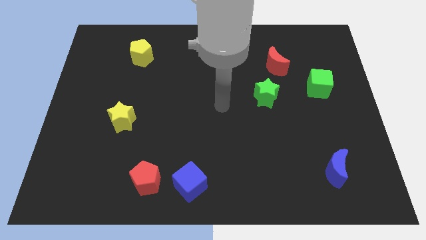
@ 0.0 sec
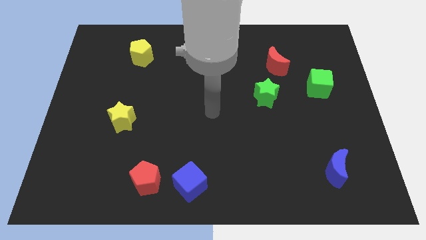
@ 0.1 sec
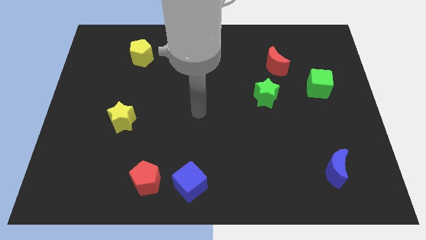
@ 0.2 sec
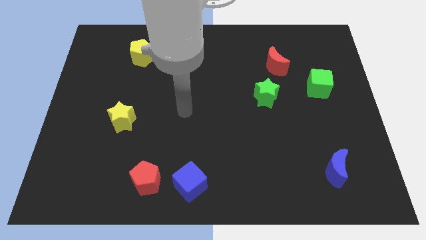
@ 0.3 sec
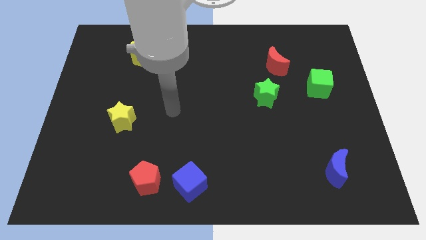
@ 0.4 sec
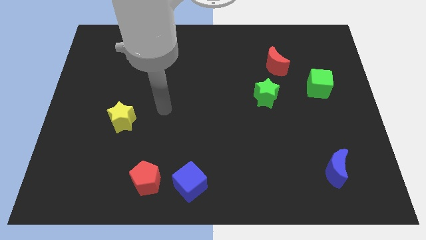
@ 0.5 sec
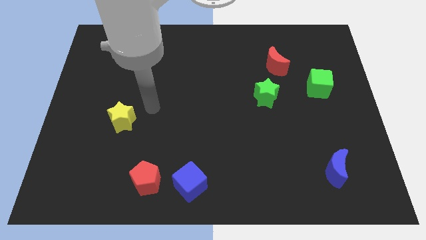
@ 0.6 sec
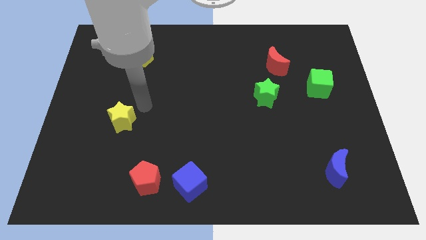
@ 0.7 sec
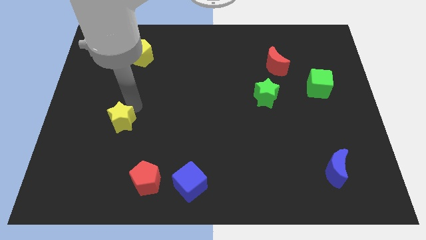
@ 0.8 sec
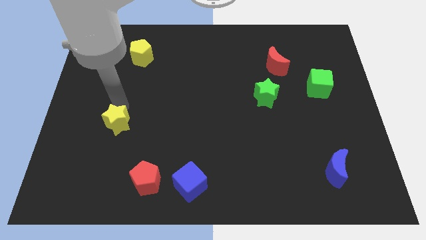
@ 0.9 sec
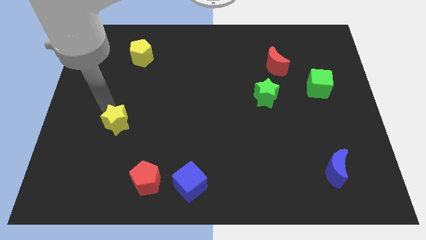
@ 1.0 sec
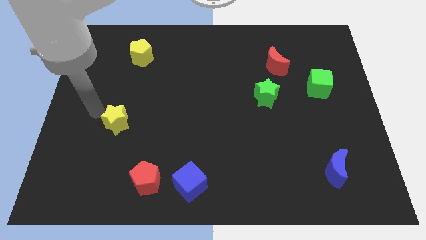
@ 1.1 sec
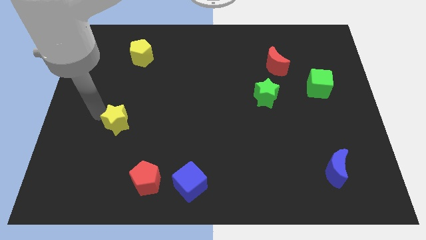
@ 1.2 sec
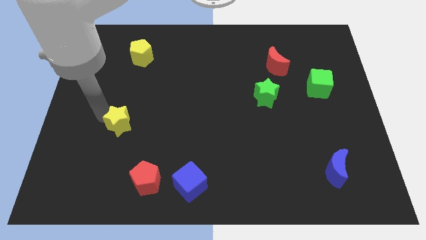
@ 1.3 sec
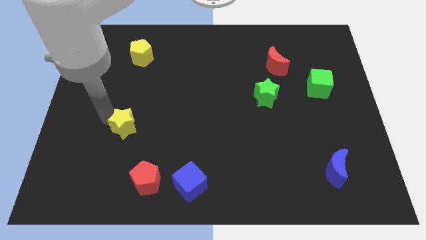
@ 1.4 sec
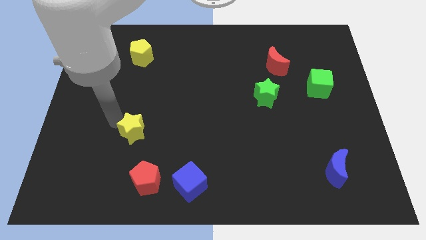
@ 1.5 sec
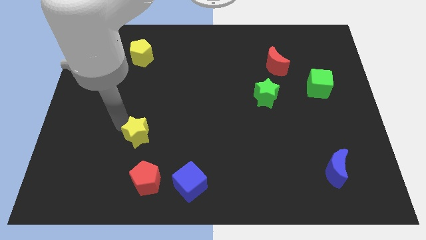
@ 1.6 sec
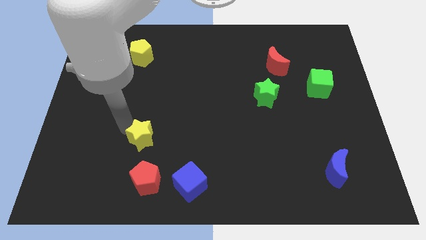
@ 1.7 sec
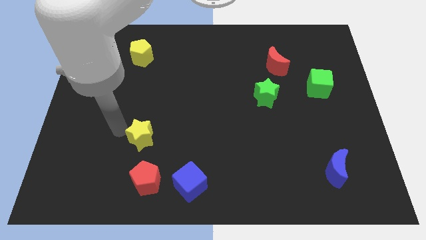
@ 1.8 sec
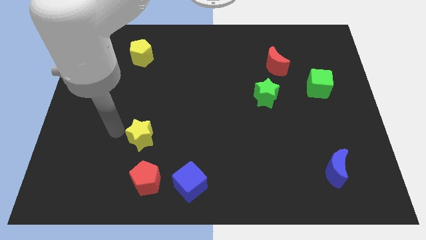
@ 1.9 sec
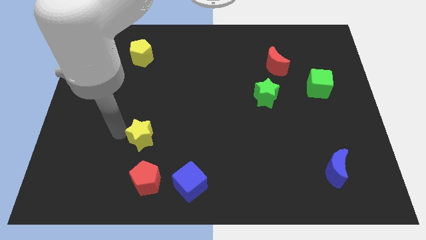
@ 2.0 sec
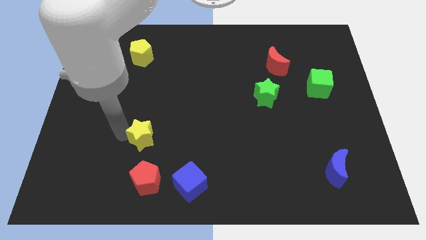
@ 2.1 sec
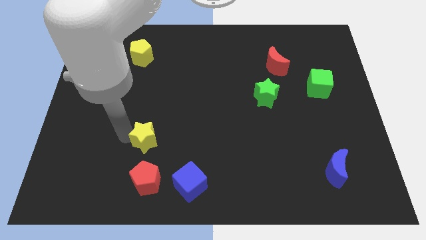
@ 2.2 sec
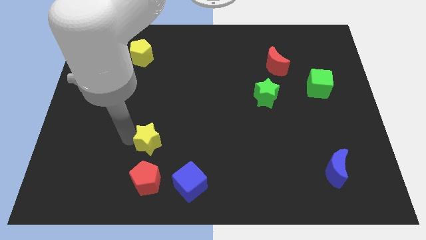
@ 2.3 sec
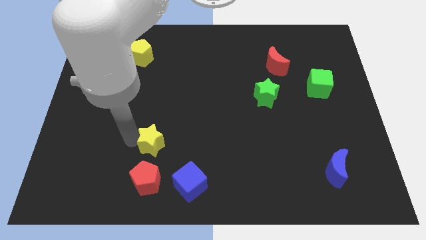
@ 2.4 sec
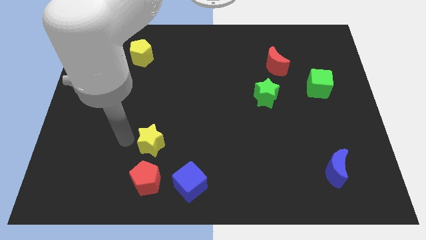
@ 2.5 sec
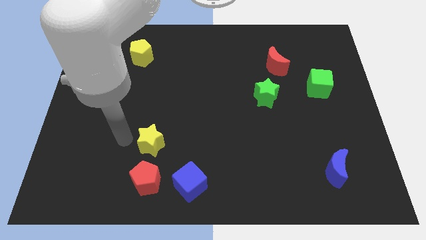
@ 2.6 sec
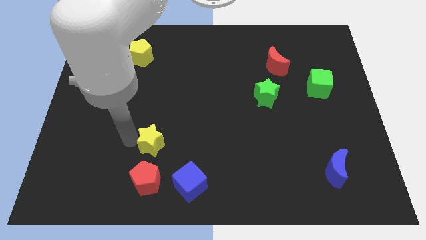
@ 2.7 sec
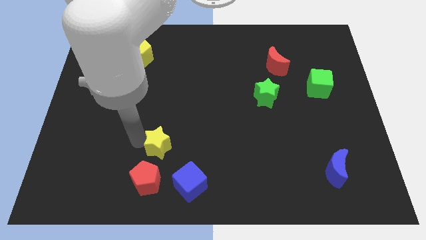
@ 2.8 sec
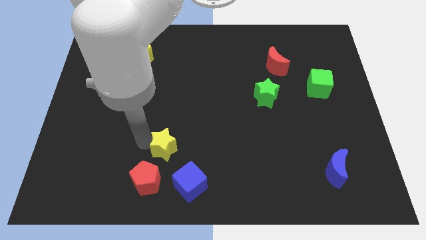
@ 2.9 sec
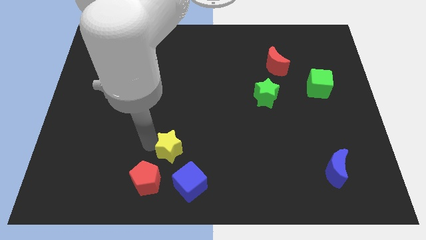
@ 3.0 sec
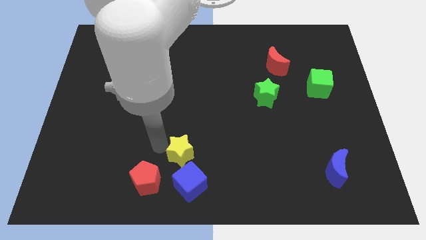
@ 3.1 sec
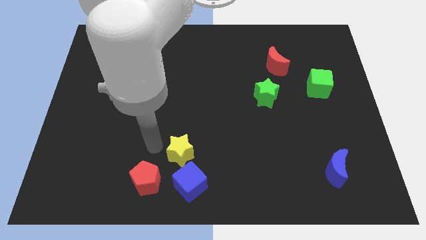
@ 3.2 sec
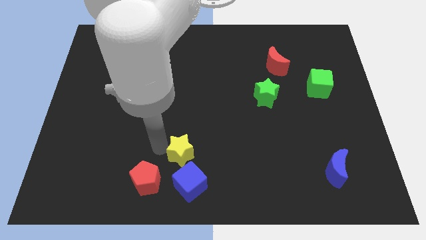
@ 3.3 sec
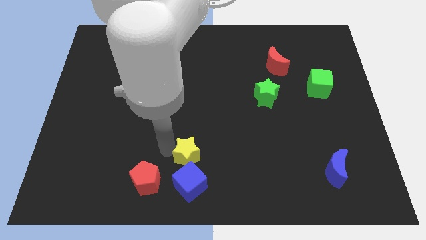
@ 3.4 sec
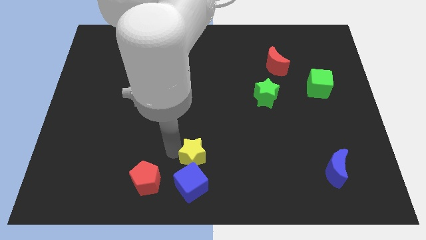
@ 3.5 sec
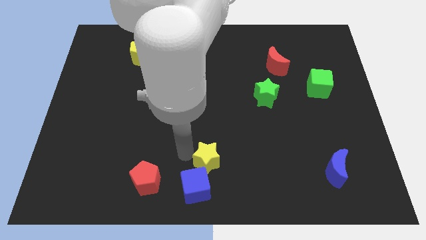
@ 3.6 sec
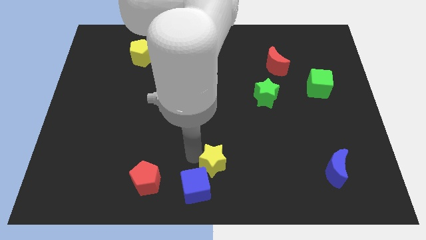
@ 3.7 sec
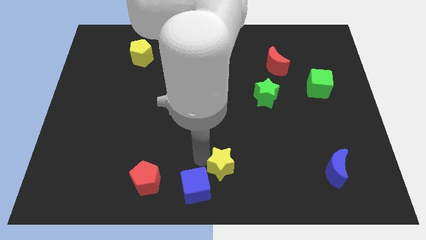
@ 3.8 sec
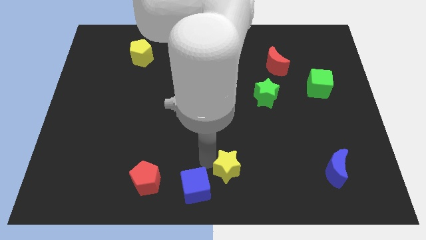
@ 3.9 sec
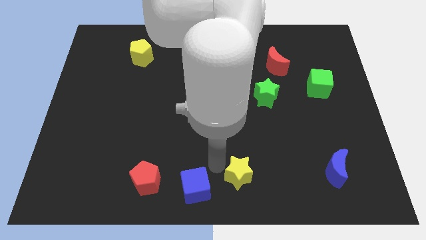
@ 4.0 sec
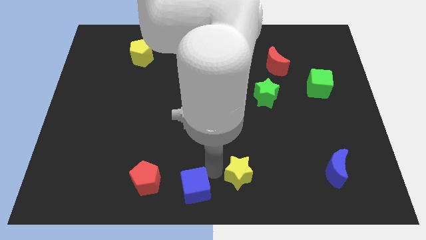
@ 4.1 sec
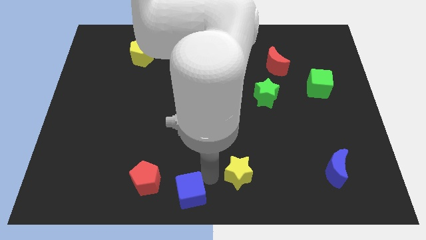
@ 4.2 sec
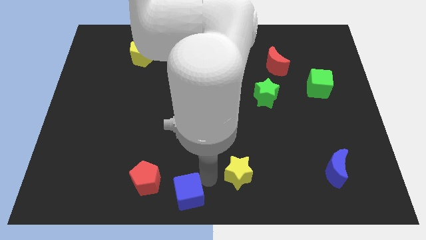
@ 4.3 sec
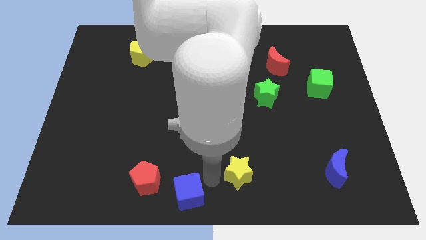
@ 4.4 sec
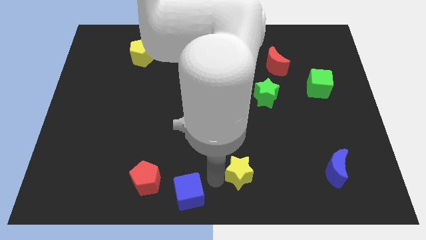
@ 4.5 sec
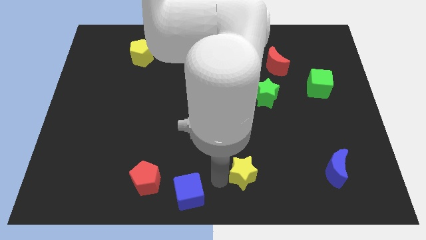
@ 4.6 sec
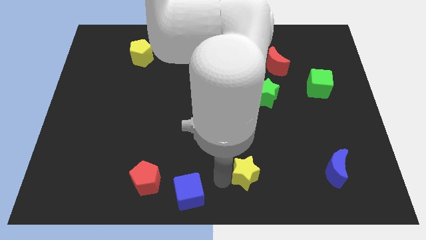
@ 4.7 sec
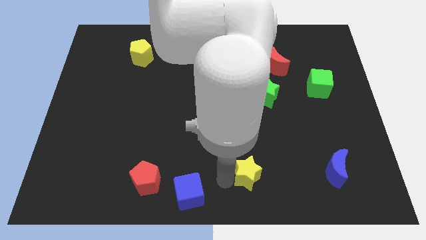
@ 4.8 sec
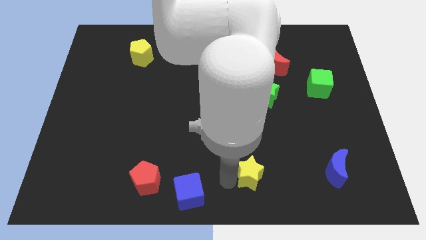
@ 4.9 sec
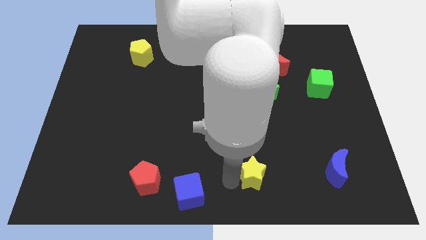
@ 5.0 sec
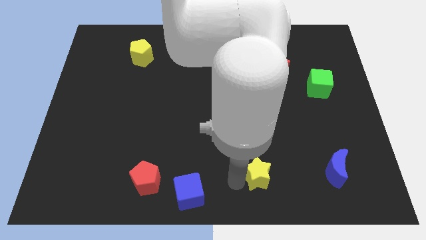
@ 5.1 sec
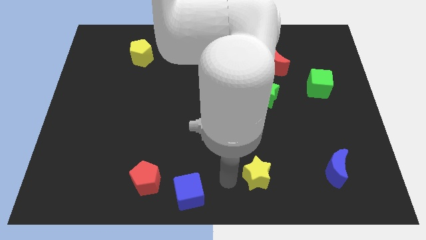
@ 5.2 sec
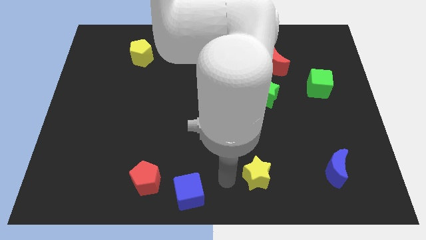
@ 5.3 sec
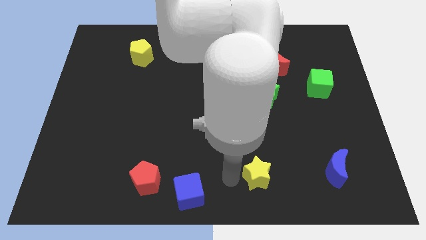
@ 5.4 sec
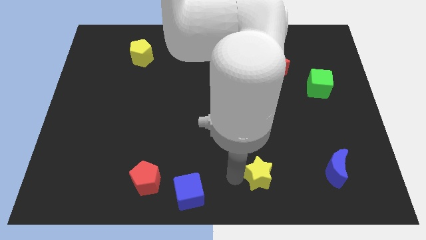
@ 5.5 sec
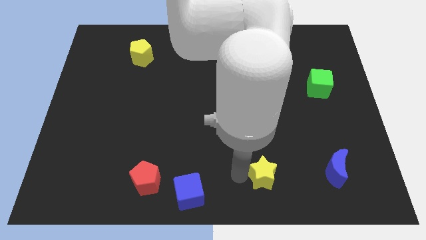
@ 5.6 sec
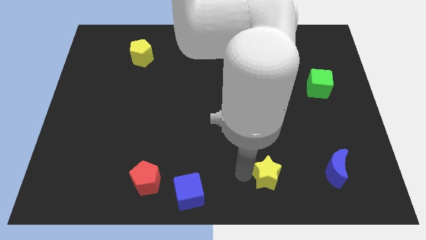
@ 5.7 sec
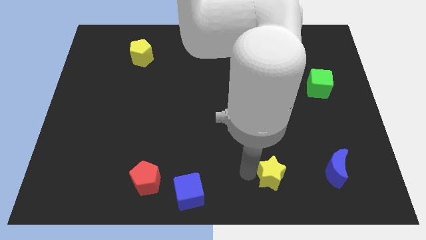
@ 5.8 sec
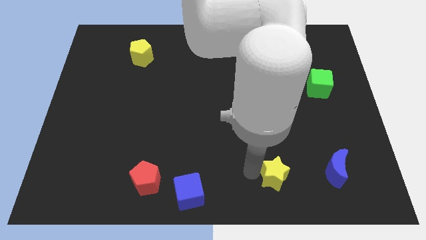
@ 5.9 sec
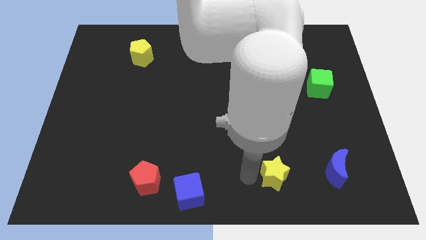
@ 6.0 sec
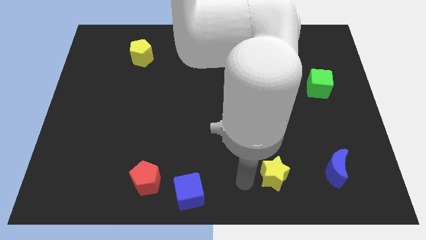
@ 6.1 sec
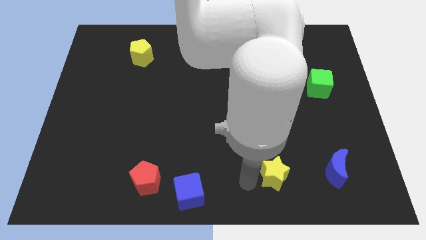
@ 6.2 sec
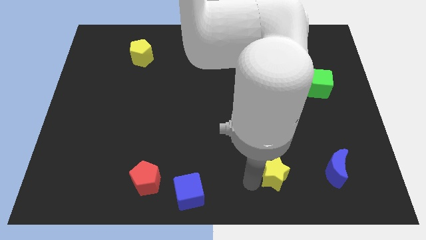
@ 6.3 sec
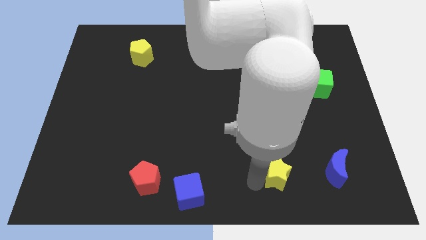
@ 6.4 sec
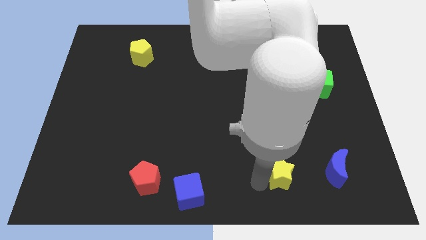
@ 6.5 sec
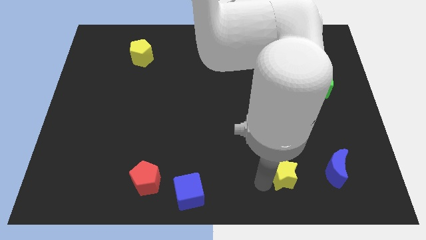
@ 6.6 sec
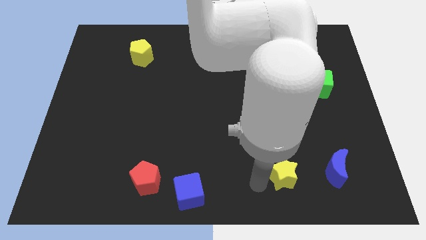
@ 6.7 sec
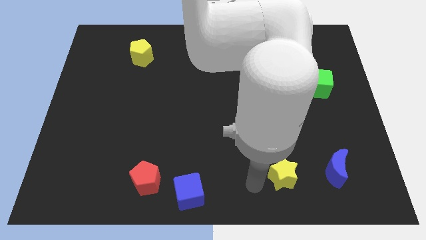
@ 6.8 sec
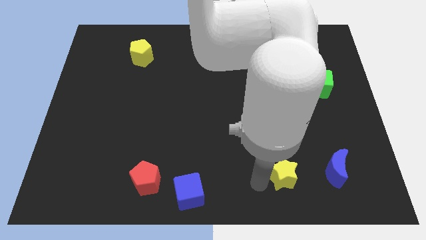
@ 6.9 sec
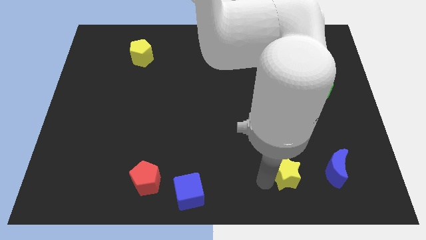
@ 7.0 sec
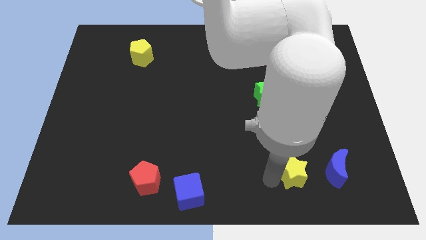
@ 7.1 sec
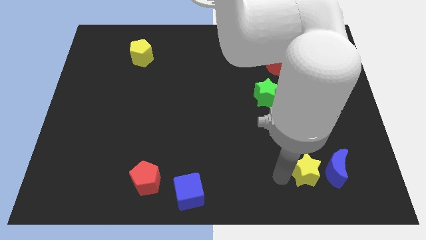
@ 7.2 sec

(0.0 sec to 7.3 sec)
slide the yellow star to the blue moon

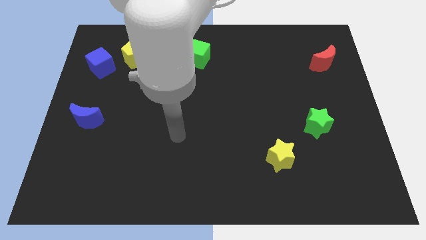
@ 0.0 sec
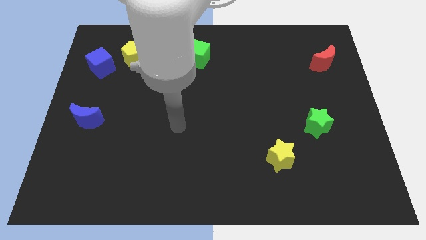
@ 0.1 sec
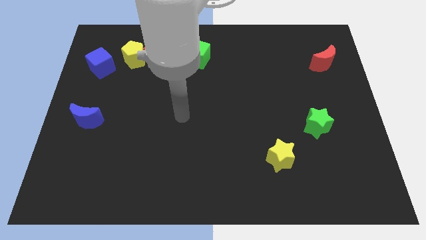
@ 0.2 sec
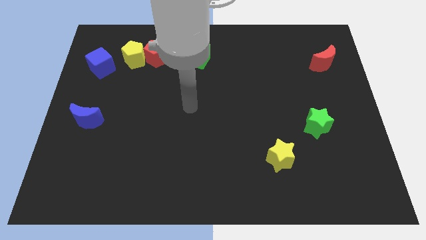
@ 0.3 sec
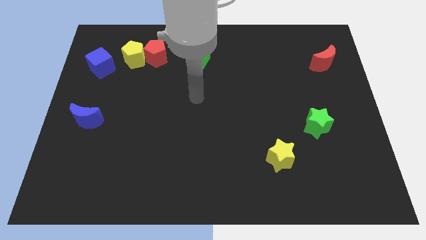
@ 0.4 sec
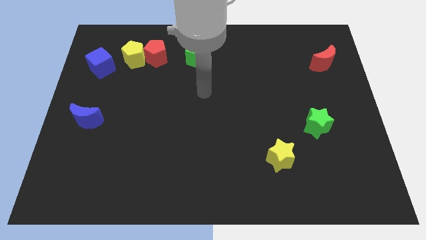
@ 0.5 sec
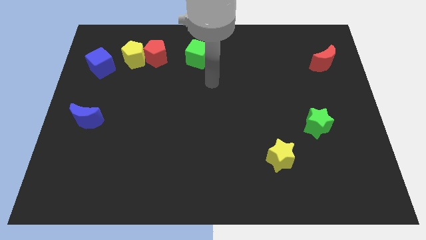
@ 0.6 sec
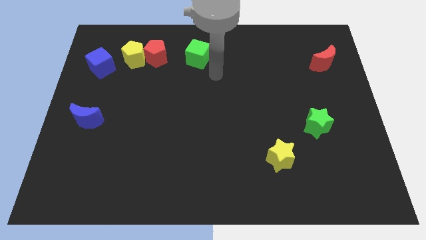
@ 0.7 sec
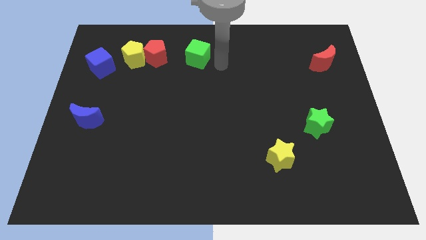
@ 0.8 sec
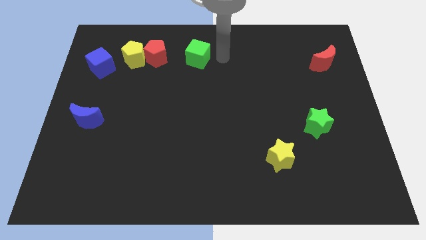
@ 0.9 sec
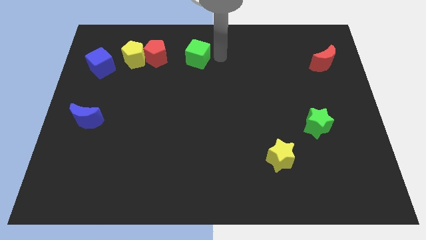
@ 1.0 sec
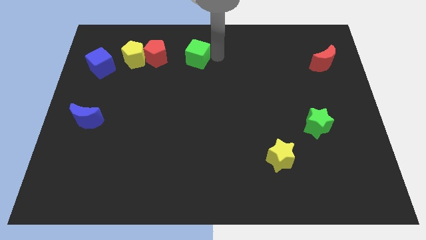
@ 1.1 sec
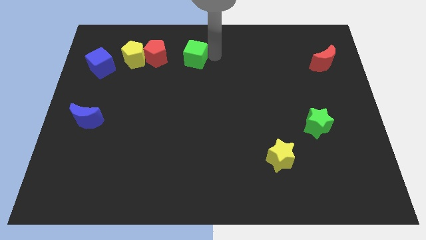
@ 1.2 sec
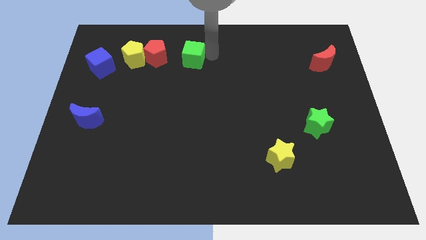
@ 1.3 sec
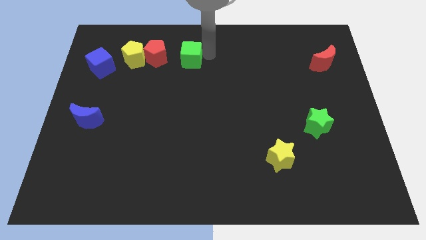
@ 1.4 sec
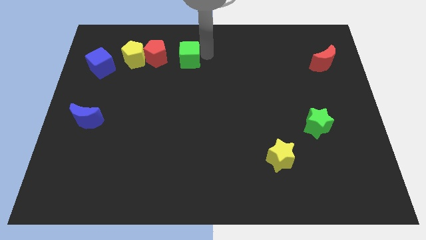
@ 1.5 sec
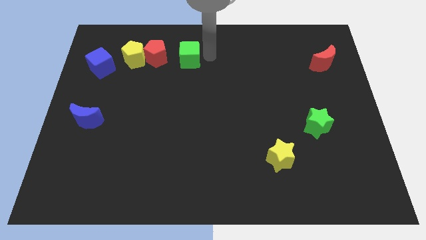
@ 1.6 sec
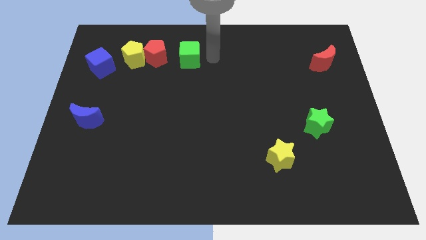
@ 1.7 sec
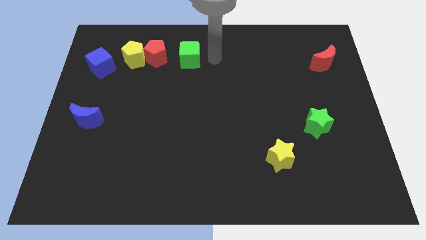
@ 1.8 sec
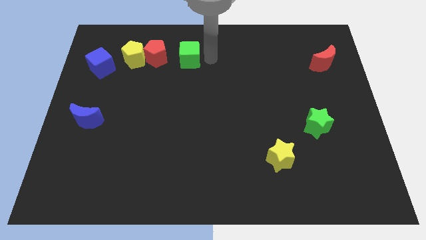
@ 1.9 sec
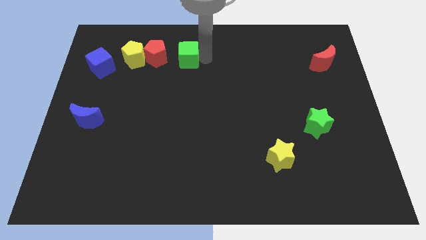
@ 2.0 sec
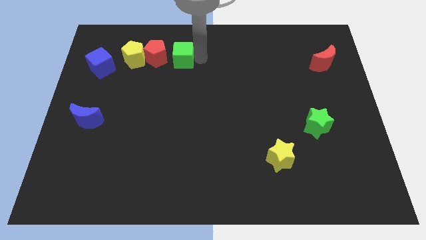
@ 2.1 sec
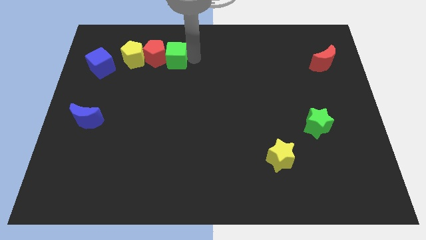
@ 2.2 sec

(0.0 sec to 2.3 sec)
move the green cube close to the red pentagon
